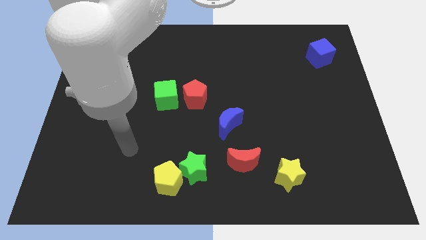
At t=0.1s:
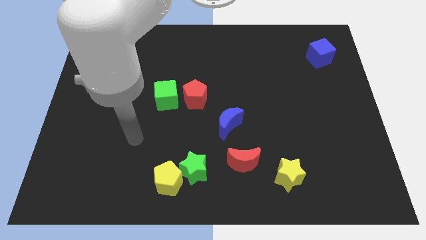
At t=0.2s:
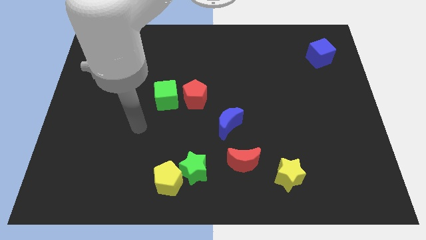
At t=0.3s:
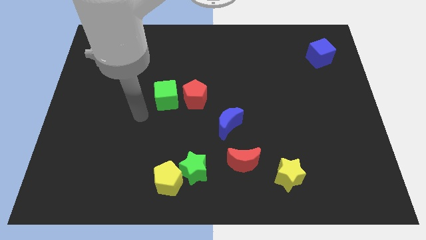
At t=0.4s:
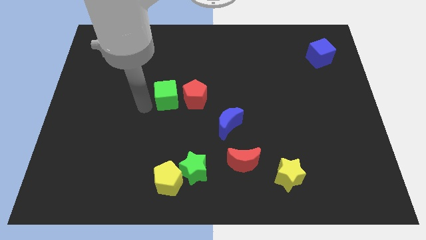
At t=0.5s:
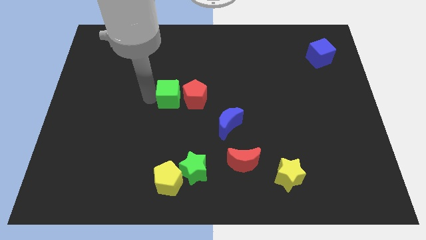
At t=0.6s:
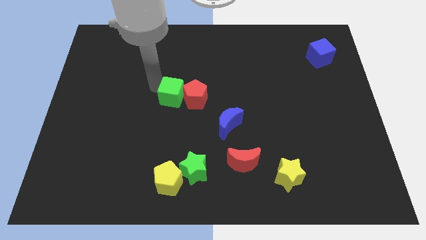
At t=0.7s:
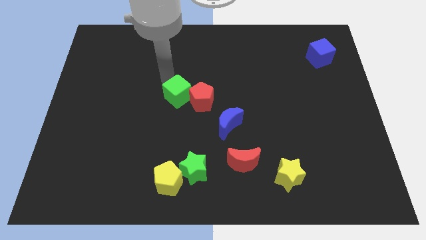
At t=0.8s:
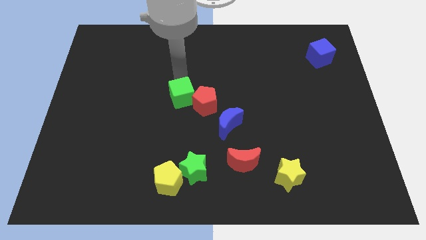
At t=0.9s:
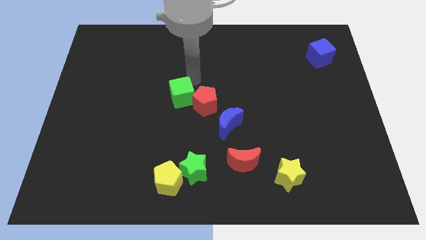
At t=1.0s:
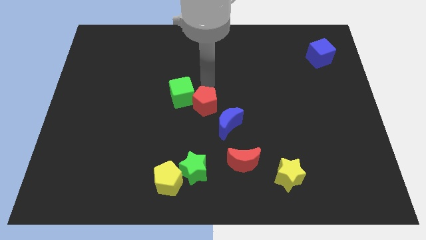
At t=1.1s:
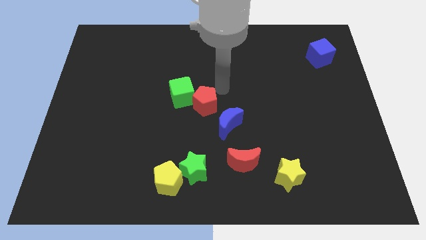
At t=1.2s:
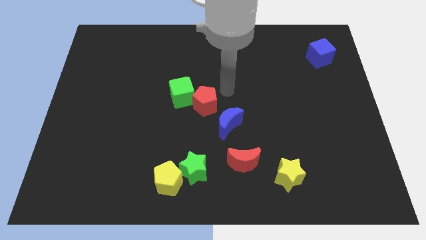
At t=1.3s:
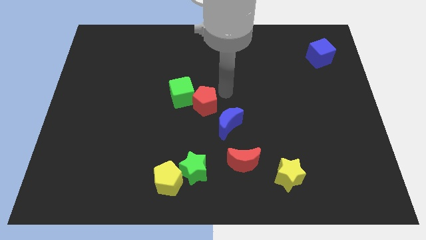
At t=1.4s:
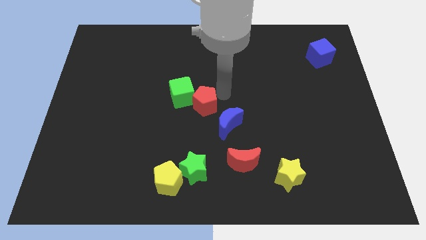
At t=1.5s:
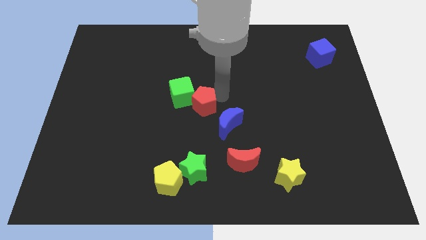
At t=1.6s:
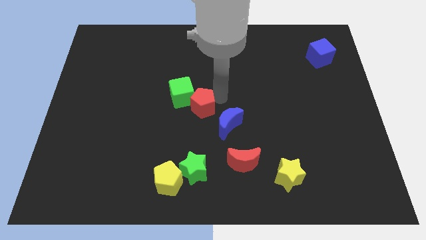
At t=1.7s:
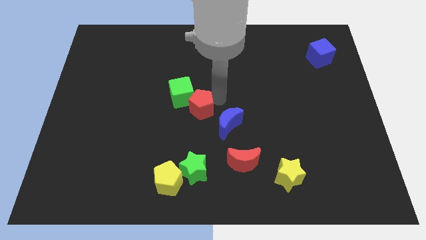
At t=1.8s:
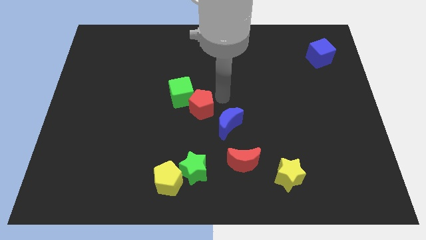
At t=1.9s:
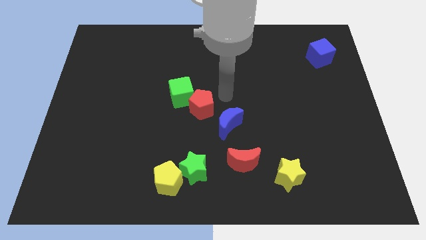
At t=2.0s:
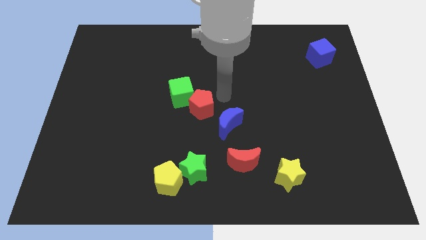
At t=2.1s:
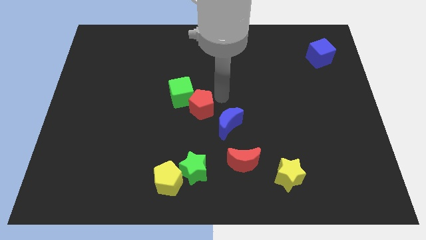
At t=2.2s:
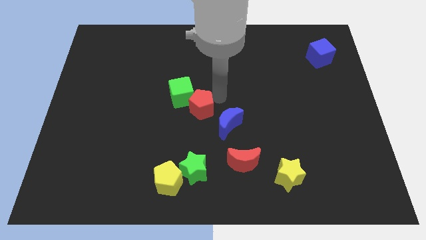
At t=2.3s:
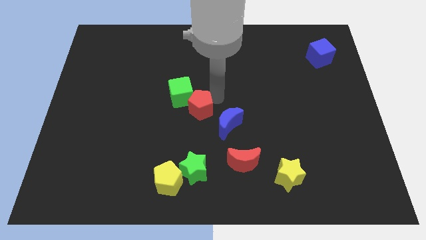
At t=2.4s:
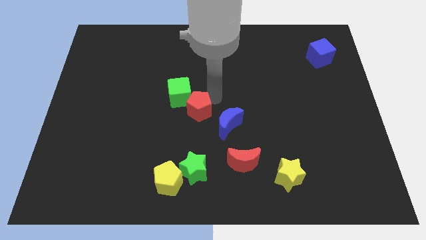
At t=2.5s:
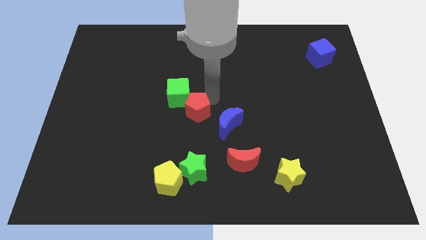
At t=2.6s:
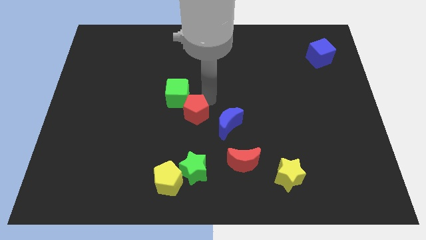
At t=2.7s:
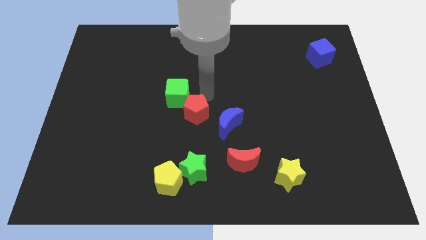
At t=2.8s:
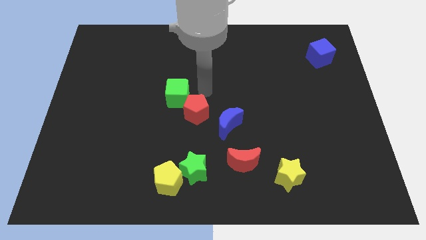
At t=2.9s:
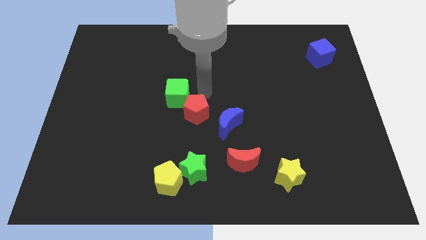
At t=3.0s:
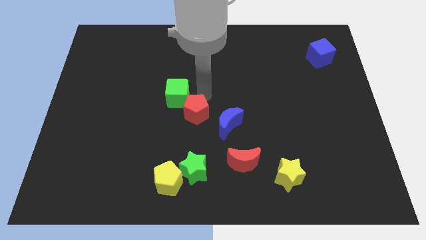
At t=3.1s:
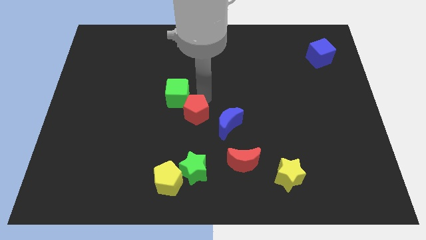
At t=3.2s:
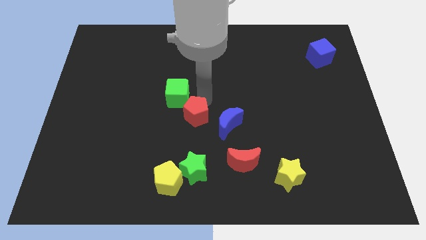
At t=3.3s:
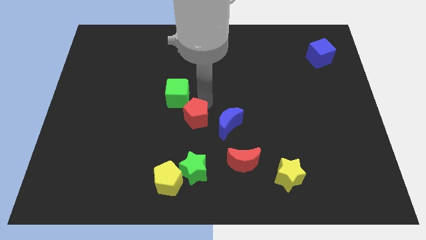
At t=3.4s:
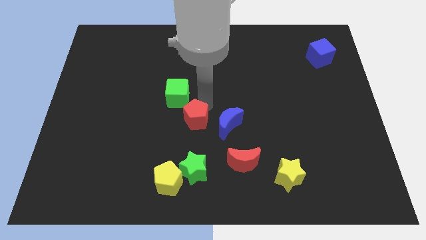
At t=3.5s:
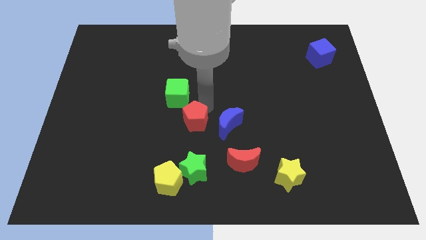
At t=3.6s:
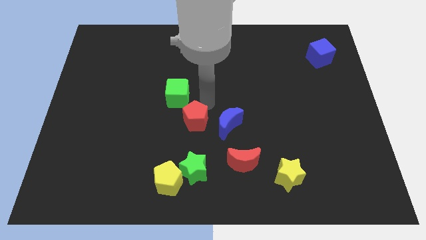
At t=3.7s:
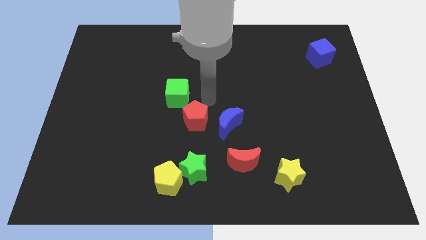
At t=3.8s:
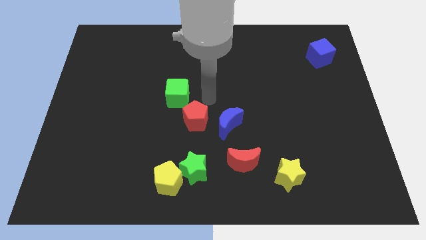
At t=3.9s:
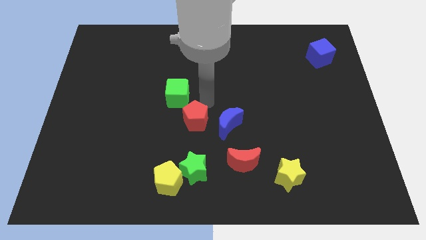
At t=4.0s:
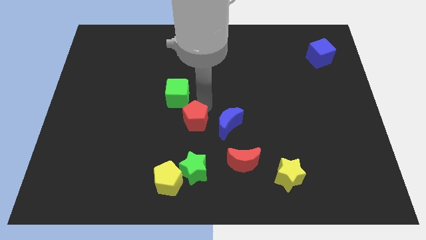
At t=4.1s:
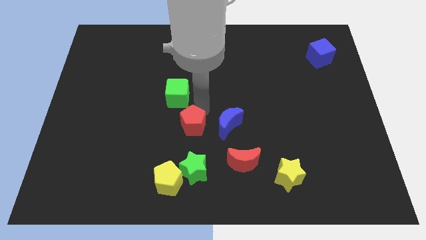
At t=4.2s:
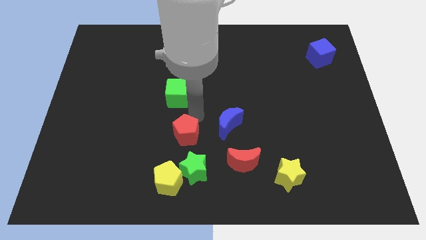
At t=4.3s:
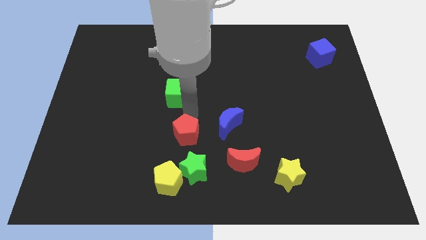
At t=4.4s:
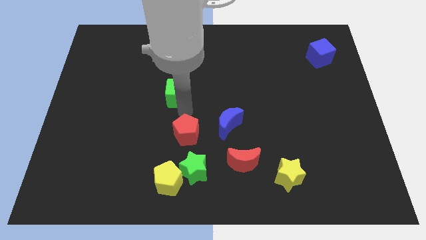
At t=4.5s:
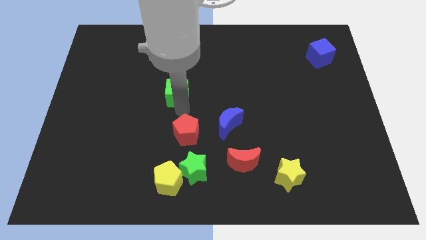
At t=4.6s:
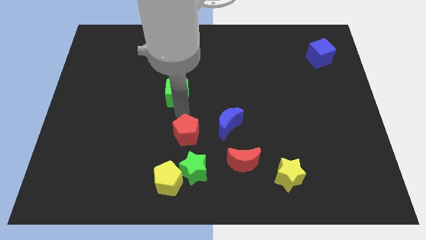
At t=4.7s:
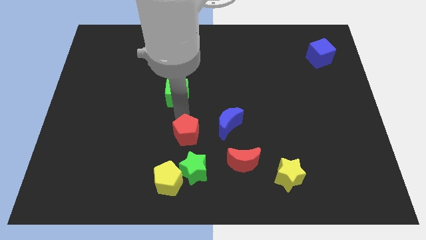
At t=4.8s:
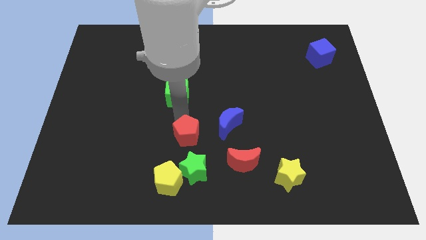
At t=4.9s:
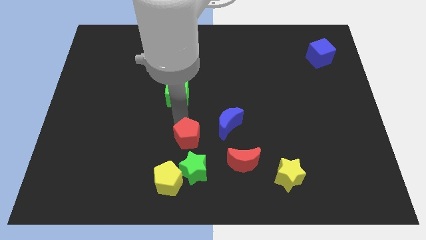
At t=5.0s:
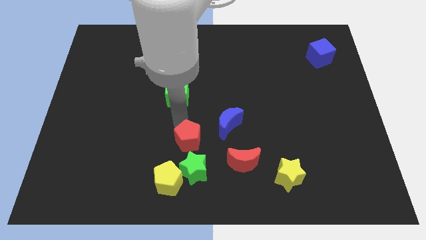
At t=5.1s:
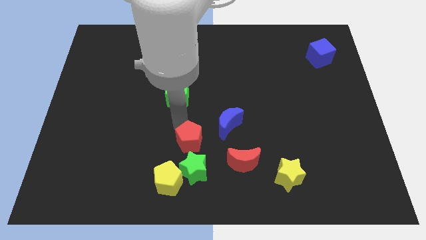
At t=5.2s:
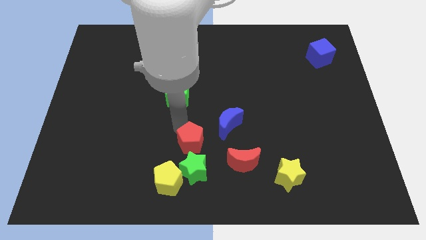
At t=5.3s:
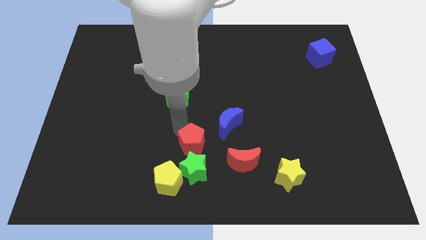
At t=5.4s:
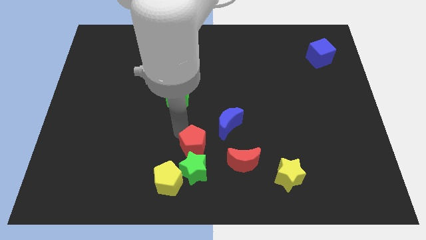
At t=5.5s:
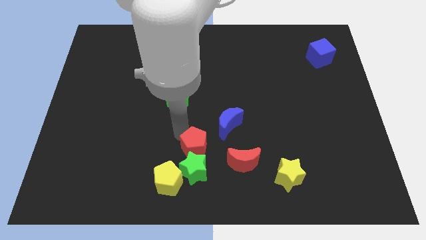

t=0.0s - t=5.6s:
push the red pentagon next to the green star

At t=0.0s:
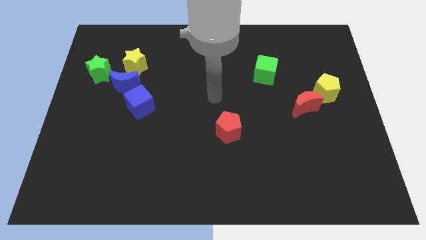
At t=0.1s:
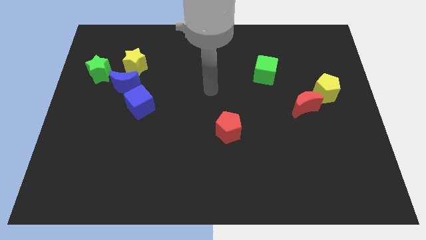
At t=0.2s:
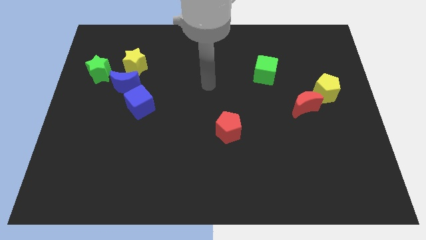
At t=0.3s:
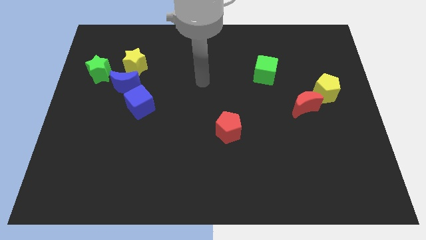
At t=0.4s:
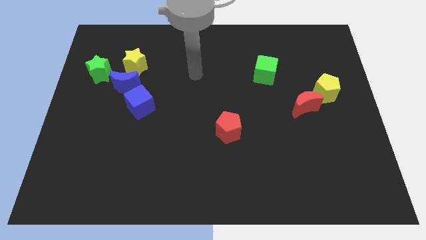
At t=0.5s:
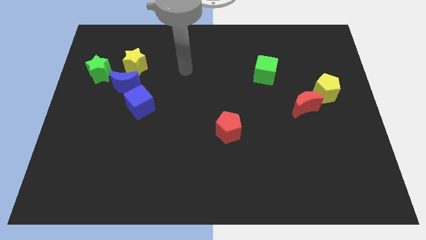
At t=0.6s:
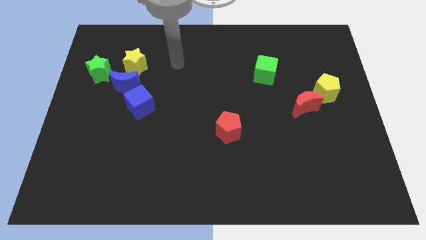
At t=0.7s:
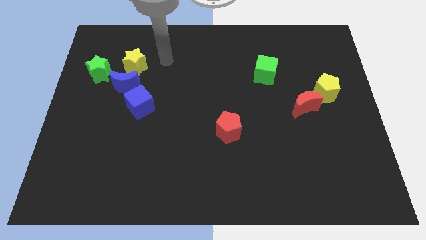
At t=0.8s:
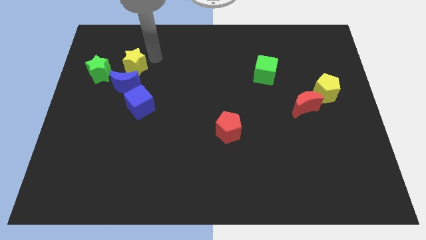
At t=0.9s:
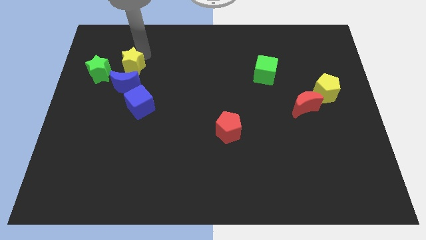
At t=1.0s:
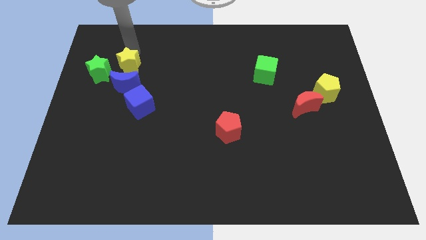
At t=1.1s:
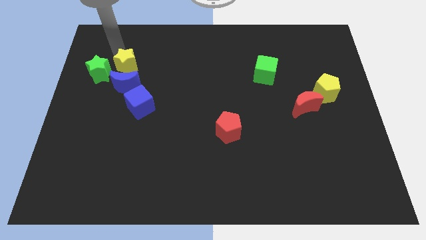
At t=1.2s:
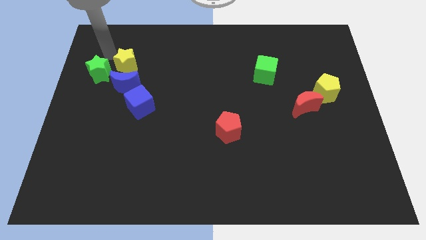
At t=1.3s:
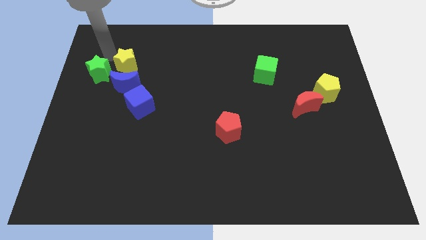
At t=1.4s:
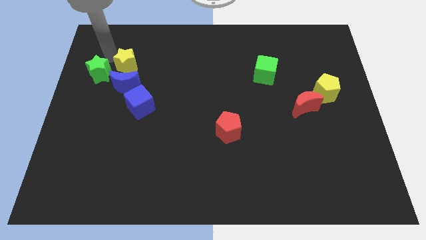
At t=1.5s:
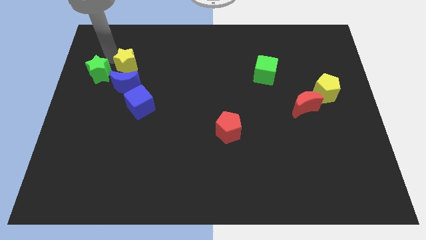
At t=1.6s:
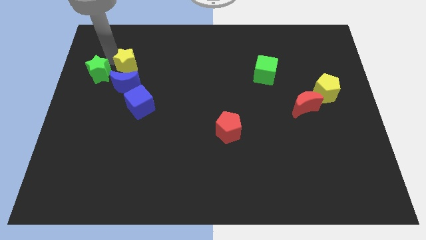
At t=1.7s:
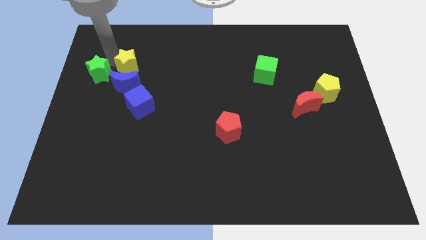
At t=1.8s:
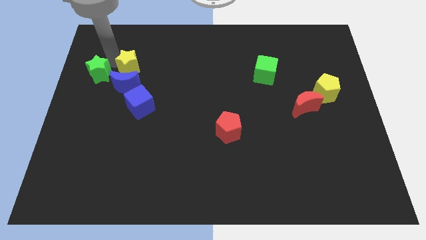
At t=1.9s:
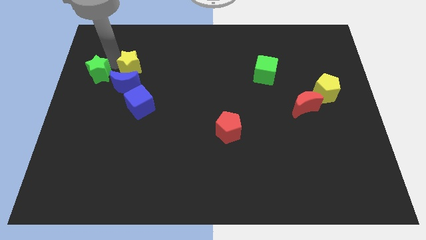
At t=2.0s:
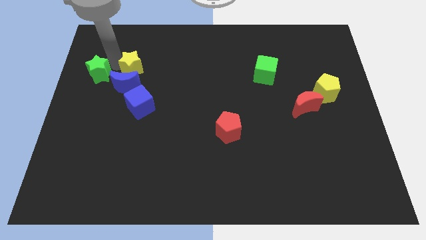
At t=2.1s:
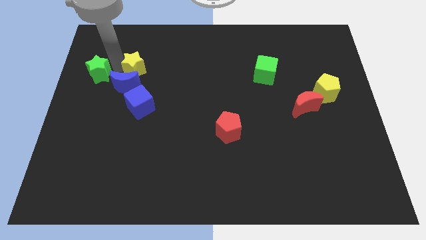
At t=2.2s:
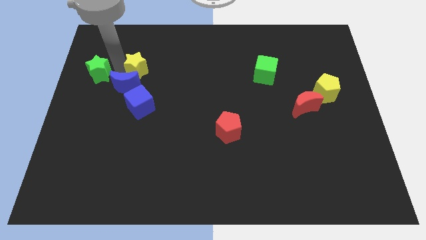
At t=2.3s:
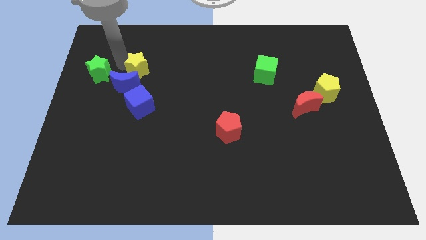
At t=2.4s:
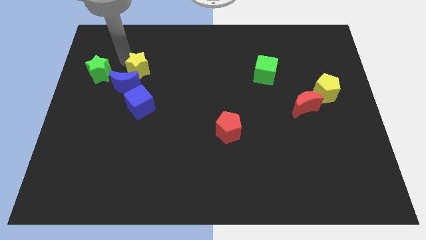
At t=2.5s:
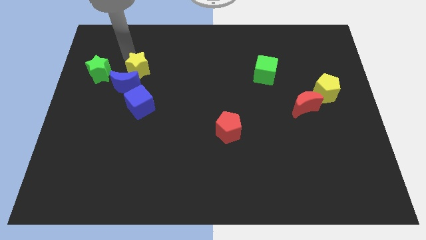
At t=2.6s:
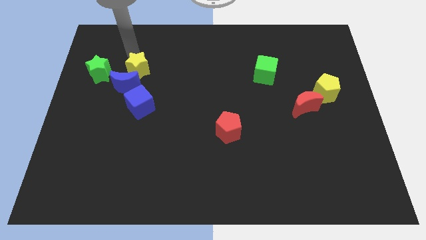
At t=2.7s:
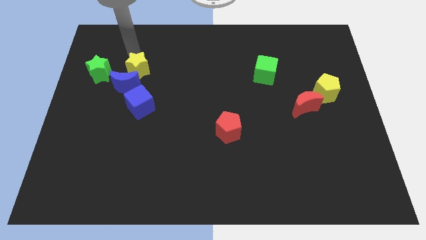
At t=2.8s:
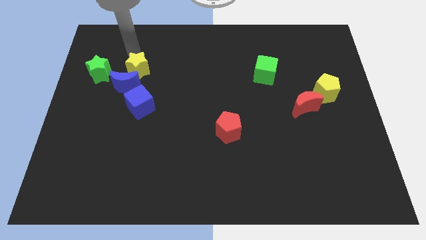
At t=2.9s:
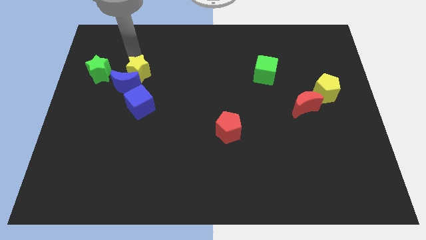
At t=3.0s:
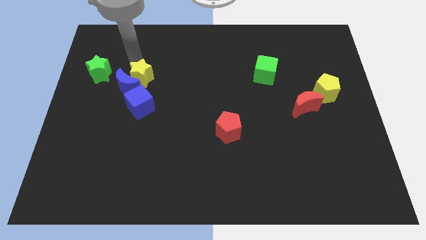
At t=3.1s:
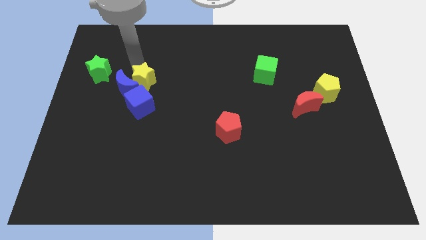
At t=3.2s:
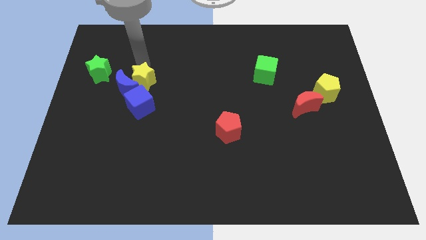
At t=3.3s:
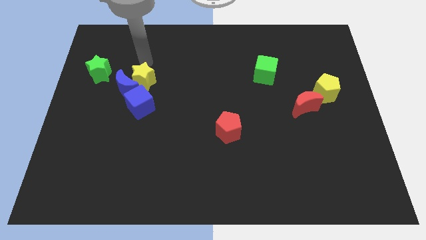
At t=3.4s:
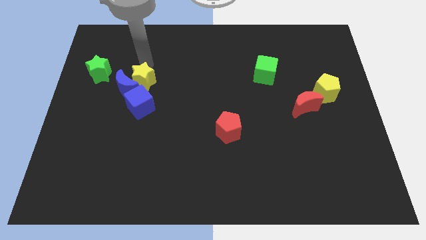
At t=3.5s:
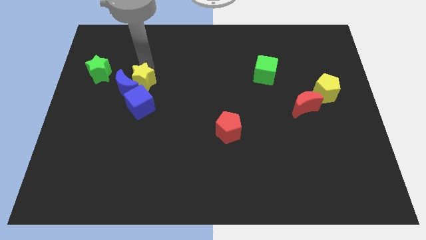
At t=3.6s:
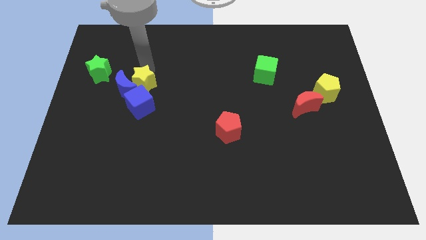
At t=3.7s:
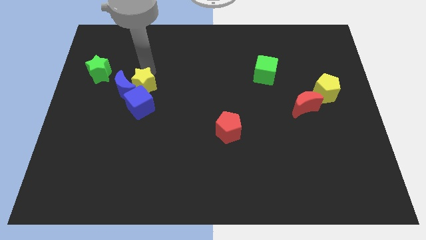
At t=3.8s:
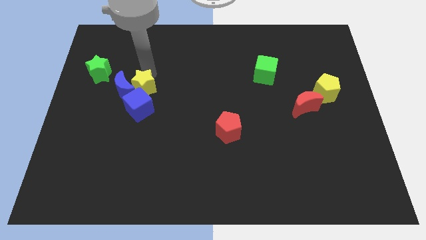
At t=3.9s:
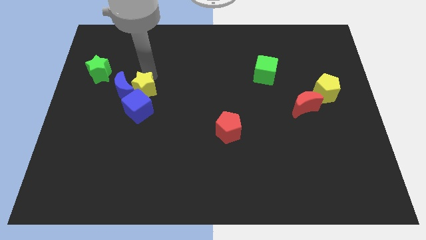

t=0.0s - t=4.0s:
move the yellow star to the blue cube
